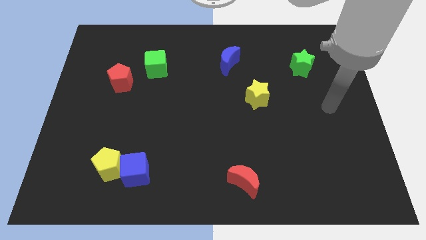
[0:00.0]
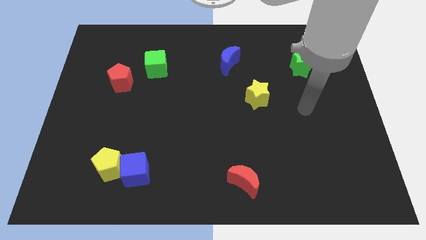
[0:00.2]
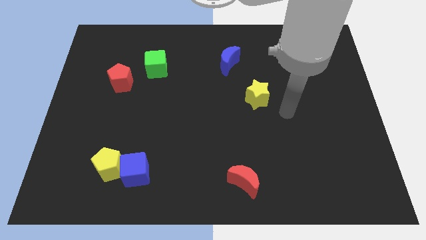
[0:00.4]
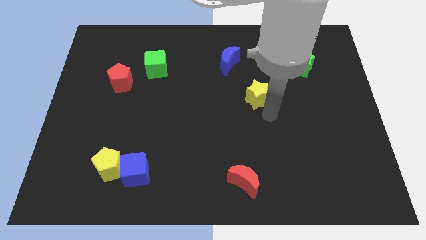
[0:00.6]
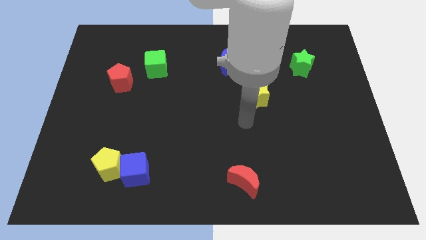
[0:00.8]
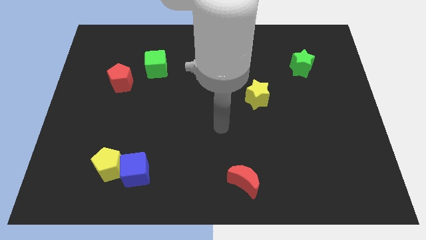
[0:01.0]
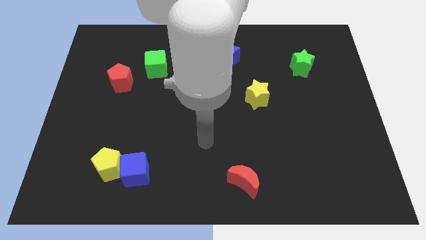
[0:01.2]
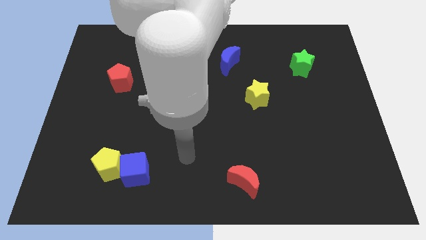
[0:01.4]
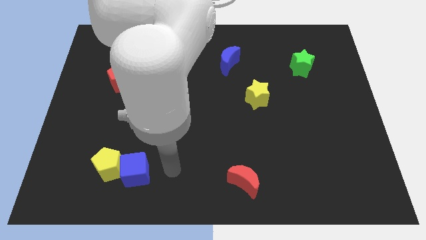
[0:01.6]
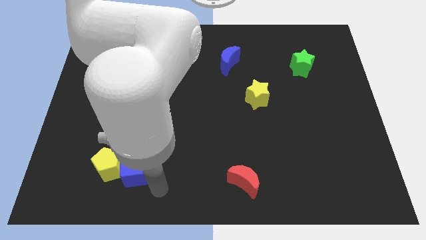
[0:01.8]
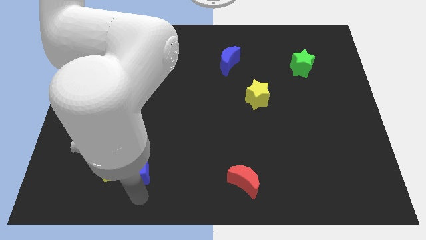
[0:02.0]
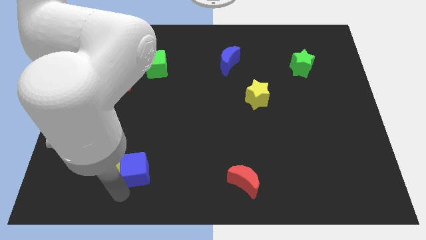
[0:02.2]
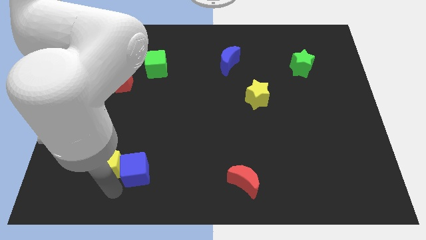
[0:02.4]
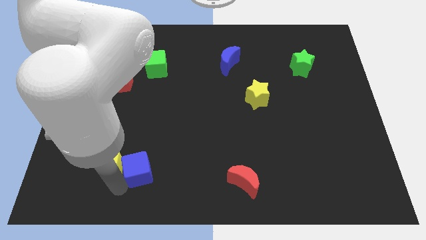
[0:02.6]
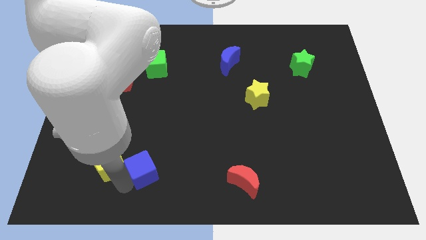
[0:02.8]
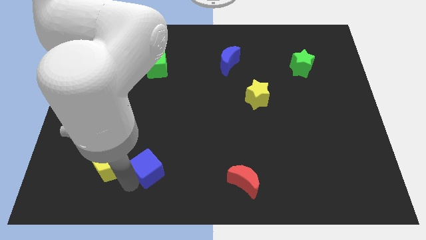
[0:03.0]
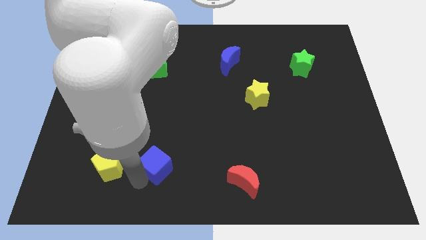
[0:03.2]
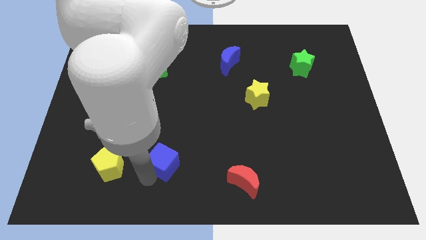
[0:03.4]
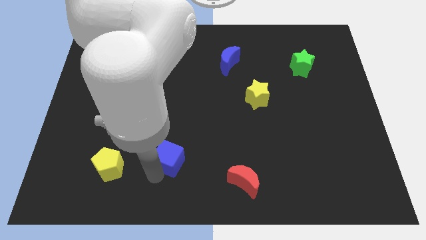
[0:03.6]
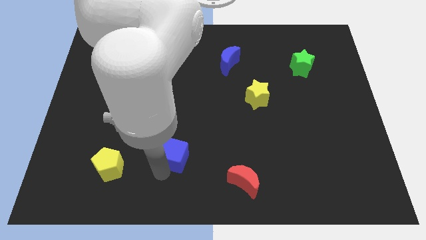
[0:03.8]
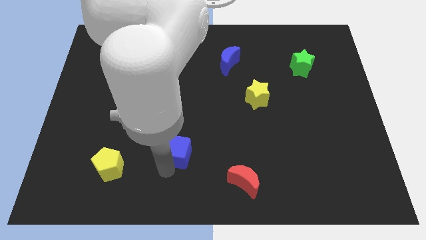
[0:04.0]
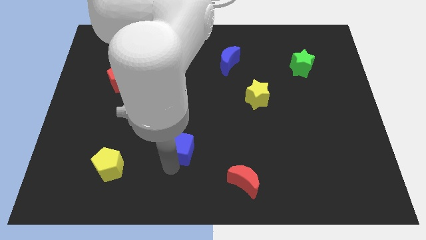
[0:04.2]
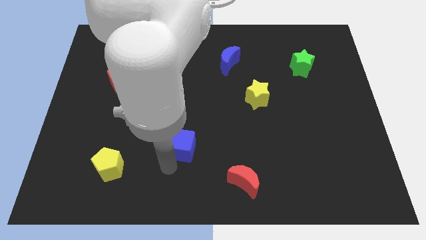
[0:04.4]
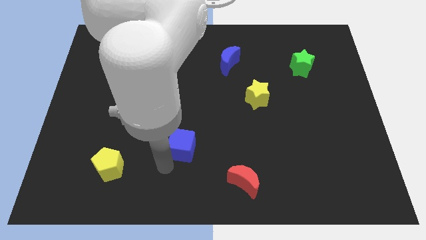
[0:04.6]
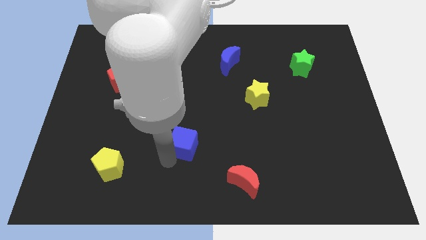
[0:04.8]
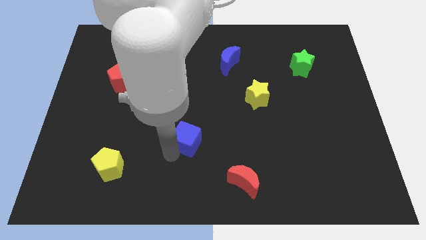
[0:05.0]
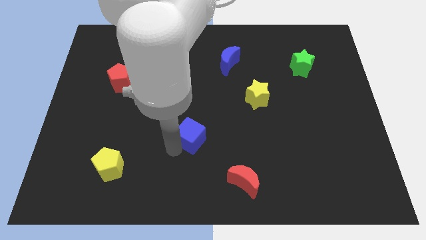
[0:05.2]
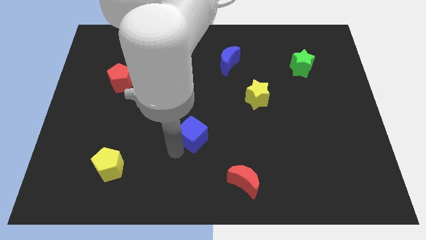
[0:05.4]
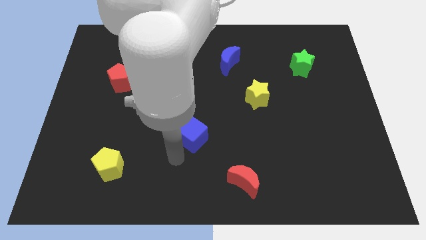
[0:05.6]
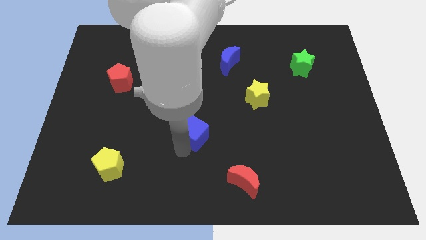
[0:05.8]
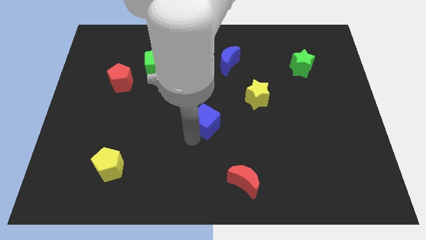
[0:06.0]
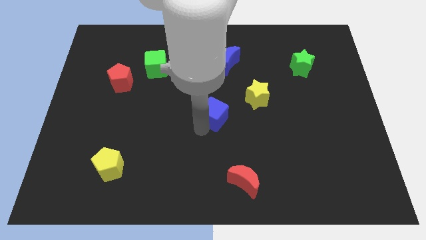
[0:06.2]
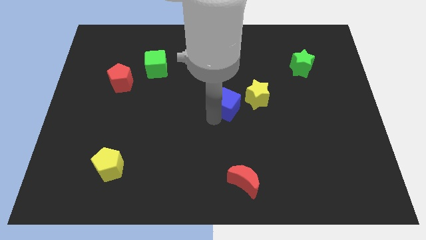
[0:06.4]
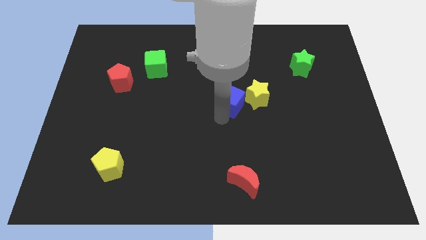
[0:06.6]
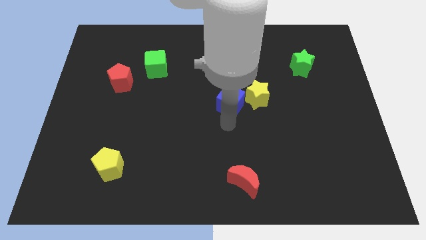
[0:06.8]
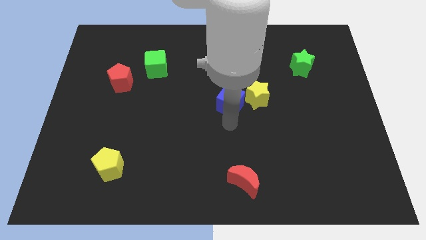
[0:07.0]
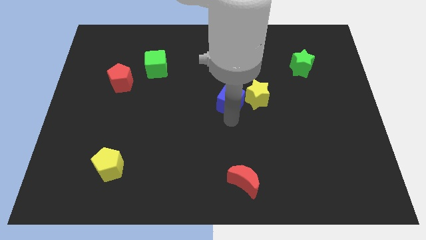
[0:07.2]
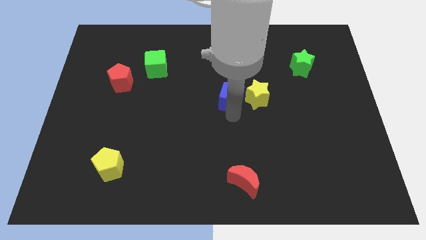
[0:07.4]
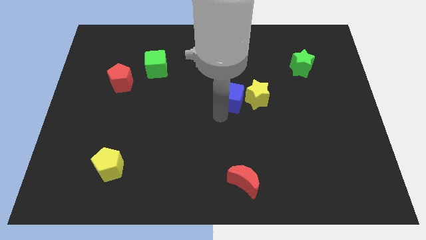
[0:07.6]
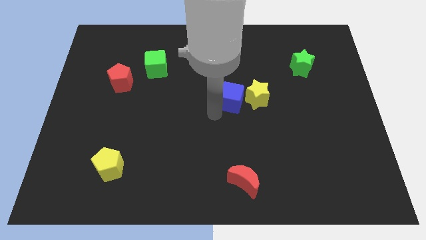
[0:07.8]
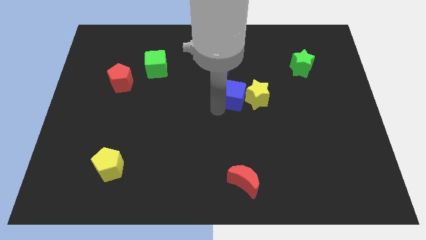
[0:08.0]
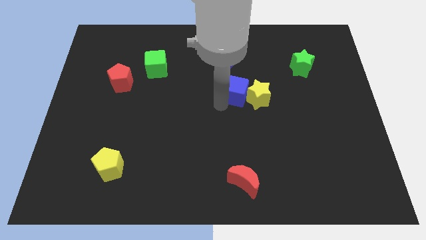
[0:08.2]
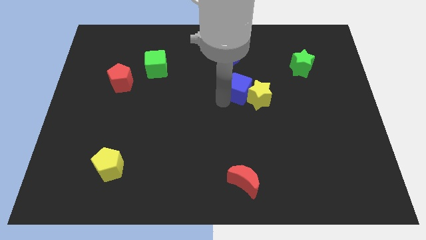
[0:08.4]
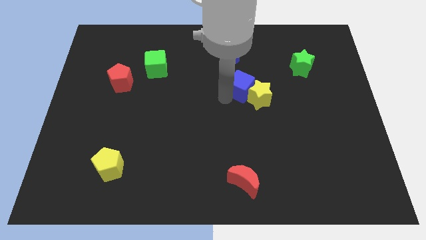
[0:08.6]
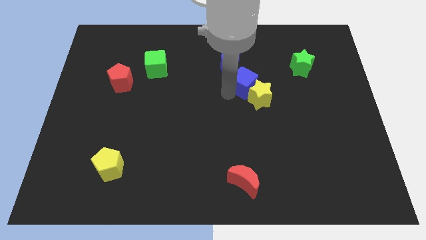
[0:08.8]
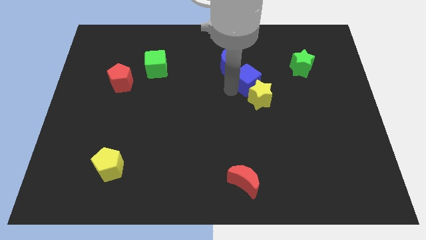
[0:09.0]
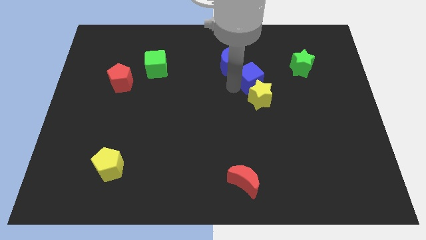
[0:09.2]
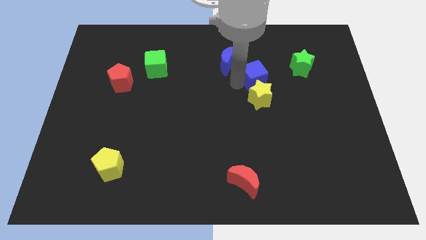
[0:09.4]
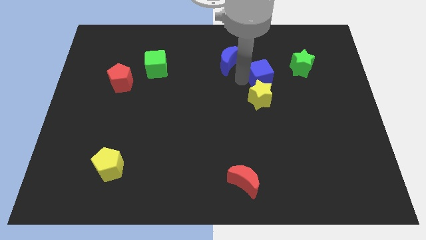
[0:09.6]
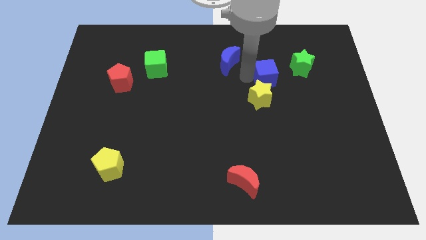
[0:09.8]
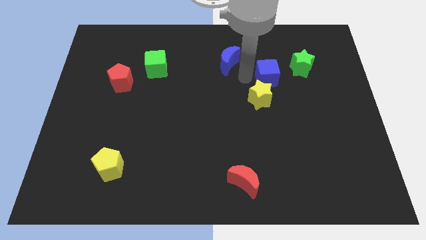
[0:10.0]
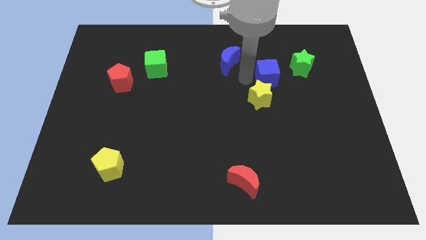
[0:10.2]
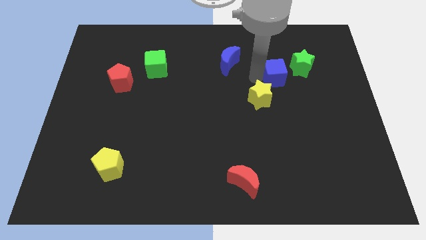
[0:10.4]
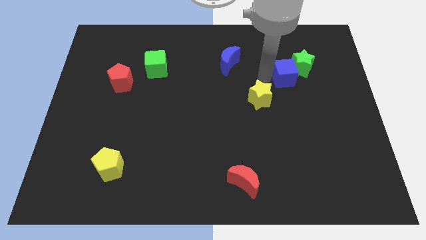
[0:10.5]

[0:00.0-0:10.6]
slide the blue cube next to the green star

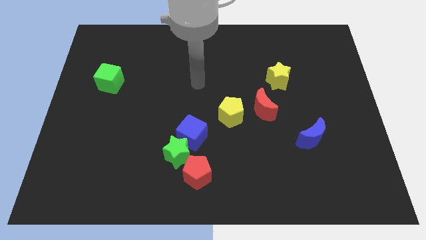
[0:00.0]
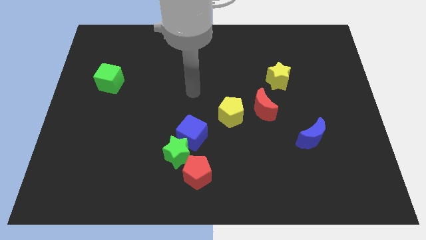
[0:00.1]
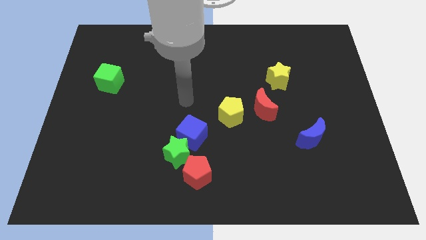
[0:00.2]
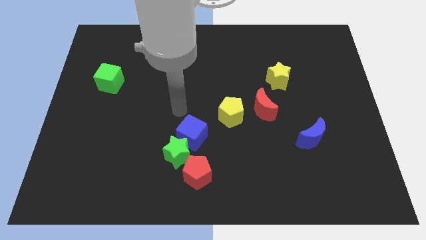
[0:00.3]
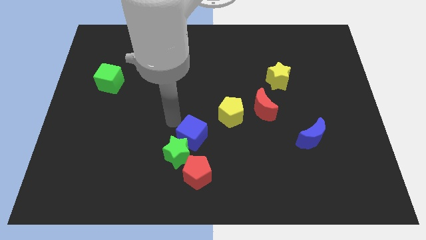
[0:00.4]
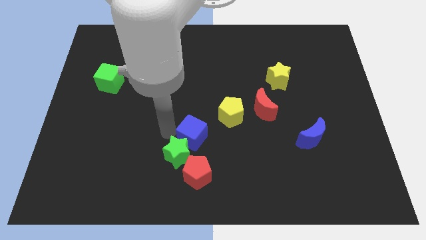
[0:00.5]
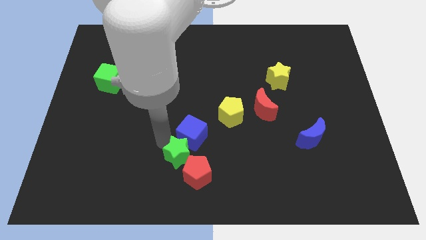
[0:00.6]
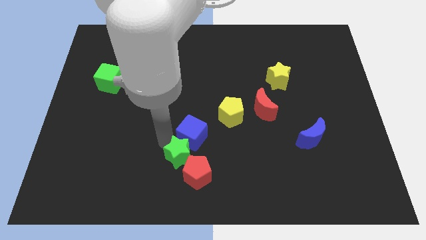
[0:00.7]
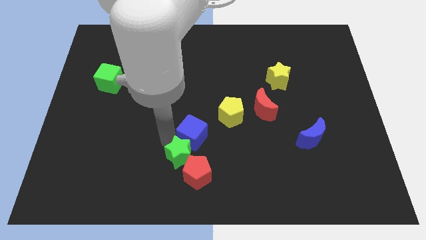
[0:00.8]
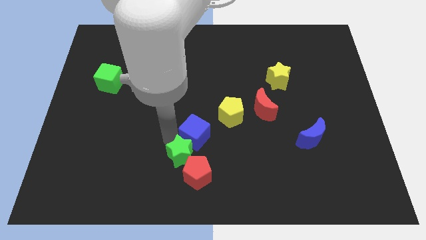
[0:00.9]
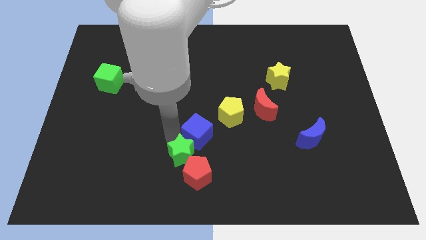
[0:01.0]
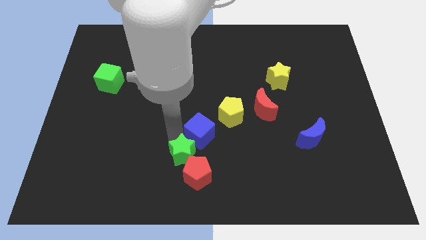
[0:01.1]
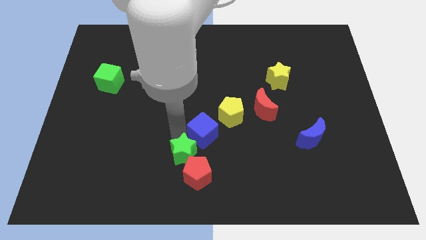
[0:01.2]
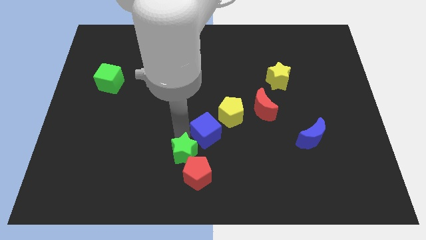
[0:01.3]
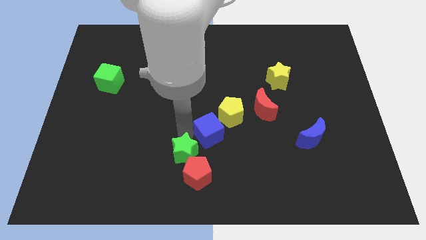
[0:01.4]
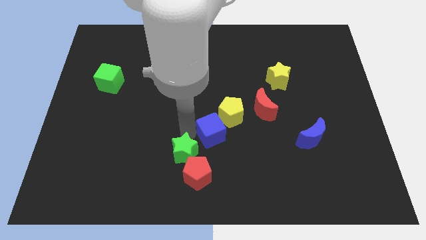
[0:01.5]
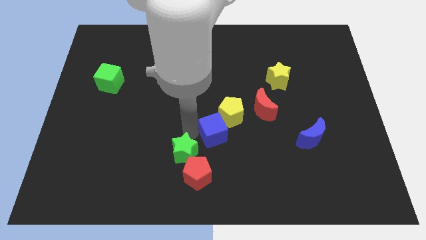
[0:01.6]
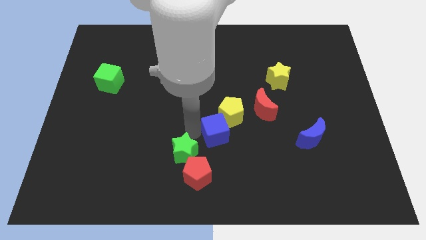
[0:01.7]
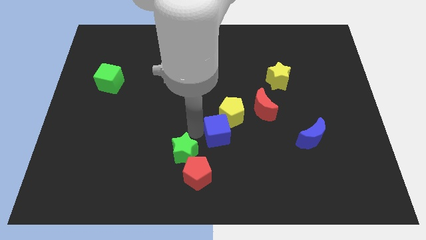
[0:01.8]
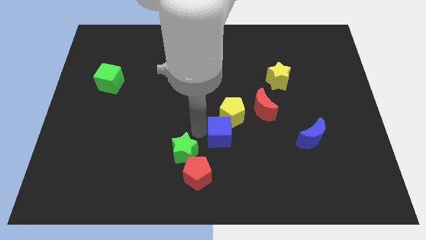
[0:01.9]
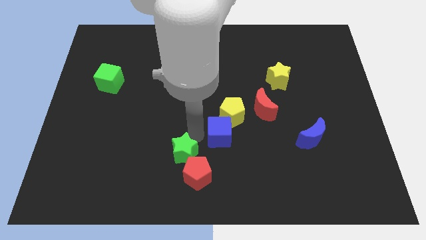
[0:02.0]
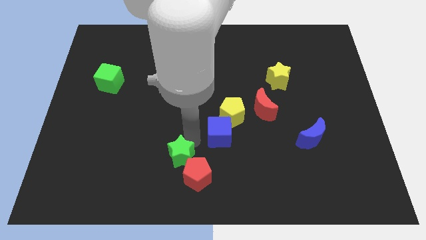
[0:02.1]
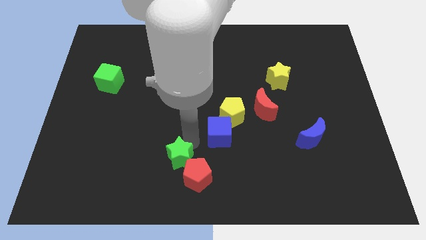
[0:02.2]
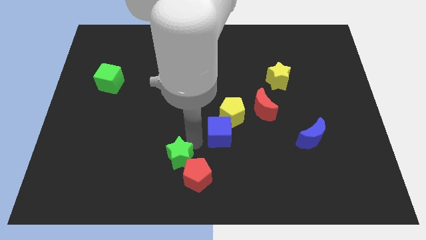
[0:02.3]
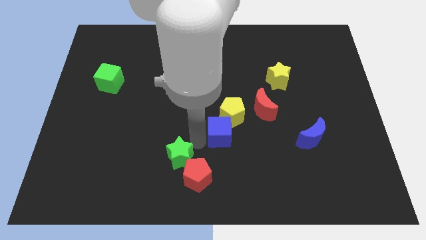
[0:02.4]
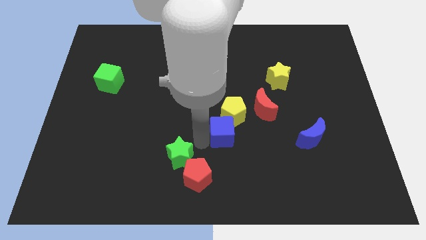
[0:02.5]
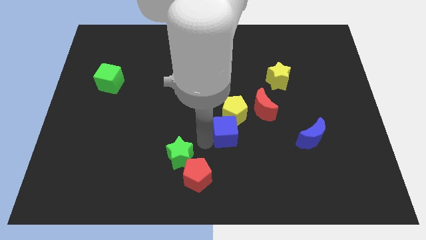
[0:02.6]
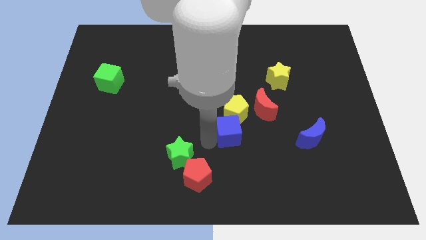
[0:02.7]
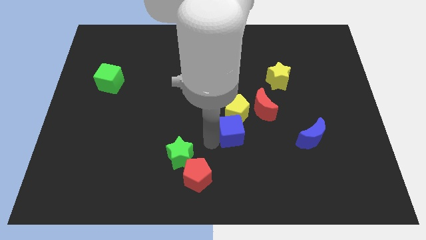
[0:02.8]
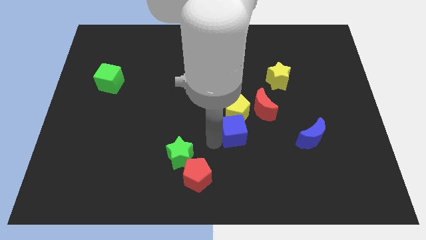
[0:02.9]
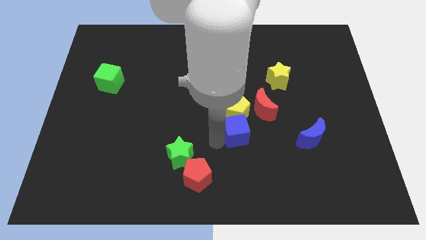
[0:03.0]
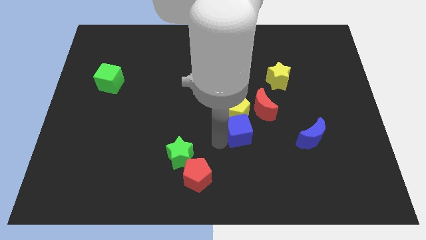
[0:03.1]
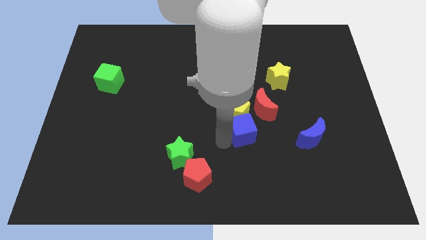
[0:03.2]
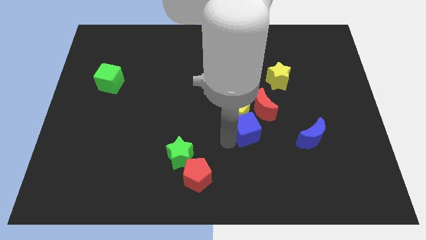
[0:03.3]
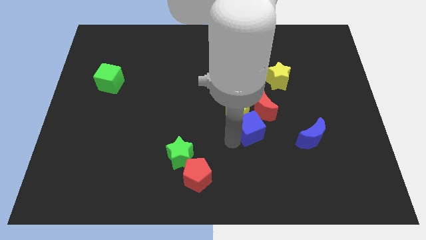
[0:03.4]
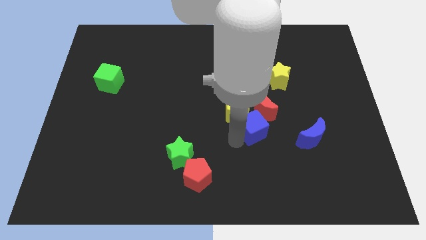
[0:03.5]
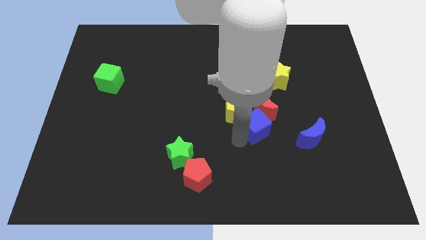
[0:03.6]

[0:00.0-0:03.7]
slide the blue cube close to the red moon
